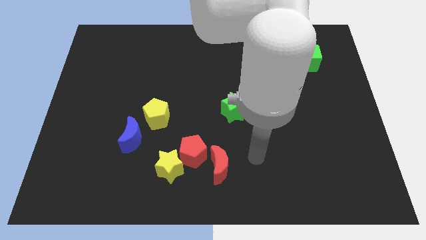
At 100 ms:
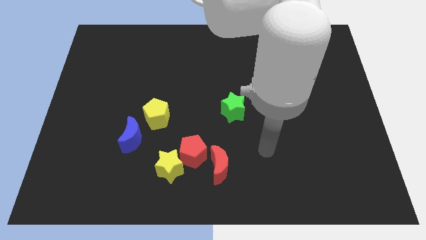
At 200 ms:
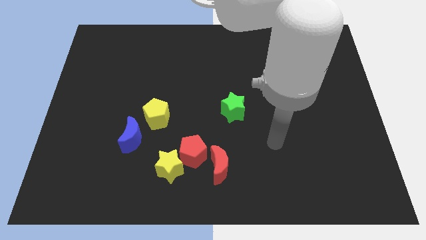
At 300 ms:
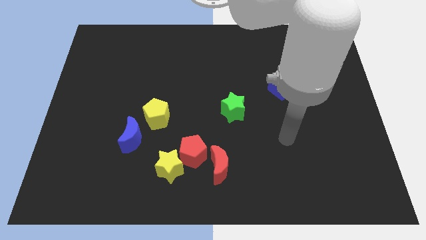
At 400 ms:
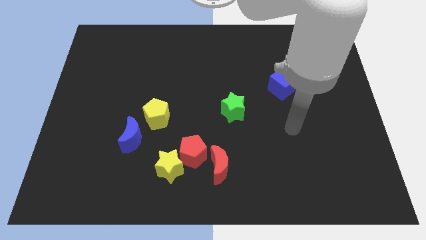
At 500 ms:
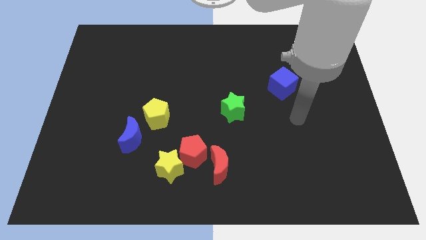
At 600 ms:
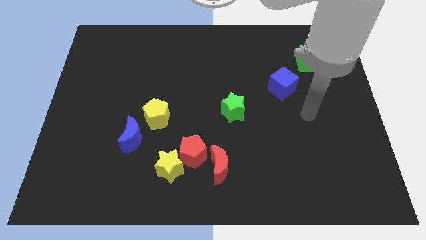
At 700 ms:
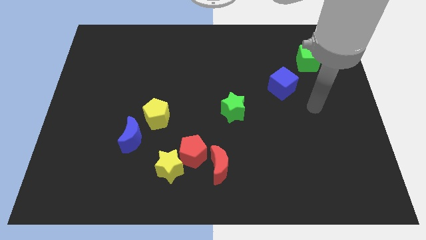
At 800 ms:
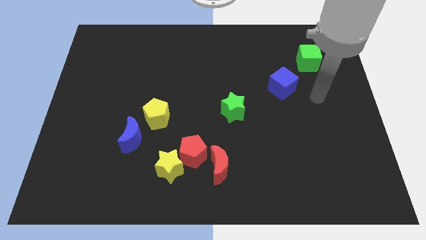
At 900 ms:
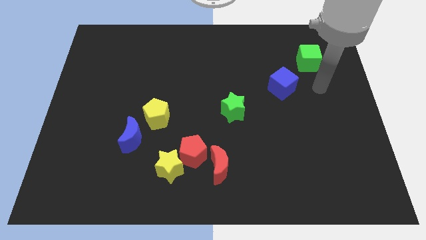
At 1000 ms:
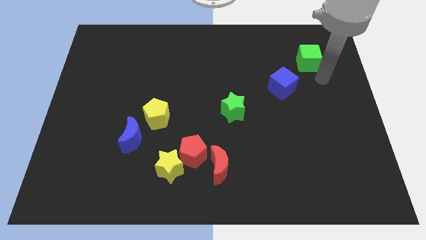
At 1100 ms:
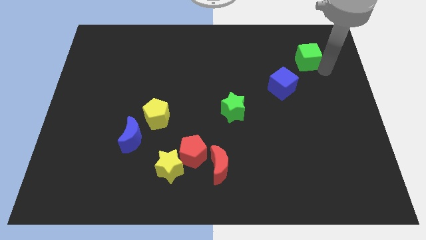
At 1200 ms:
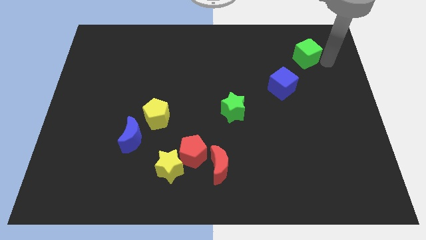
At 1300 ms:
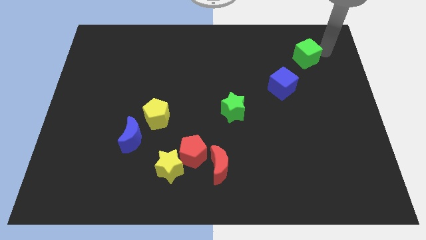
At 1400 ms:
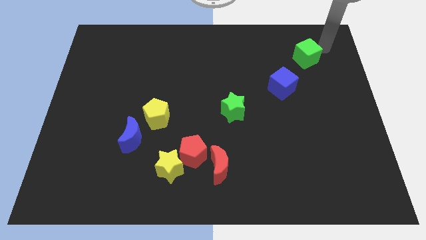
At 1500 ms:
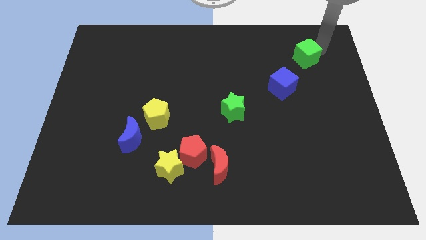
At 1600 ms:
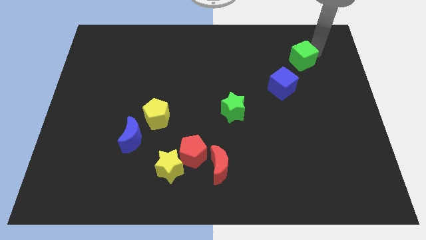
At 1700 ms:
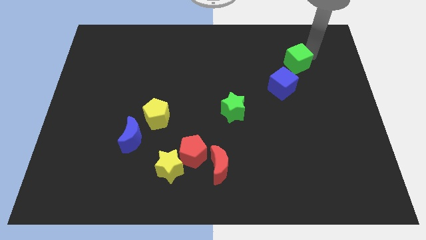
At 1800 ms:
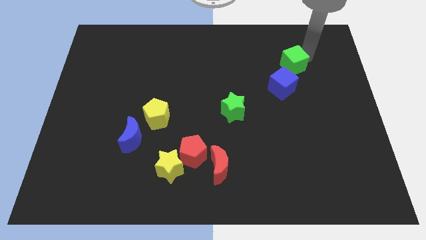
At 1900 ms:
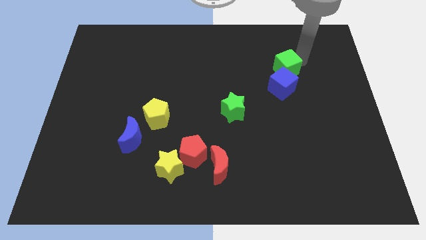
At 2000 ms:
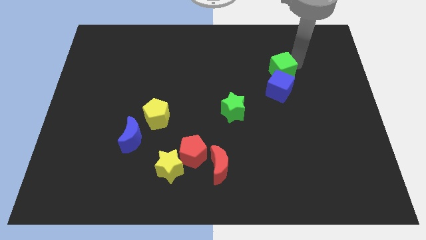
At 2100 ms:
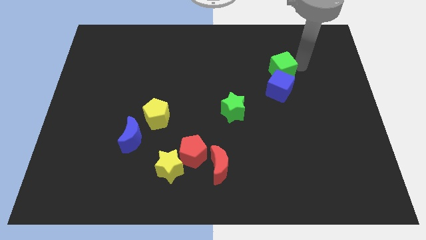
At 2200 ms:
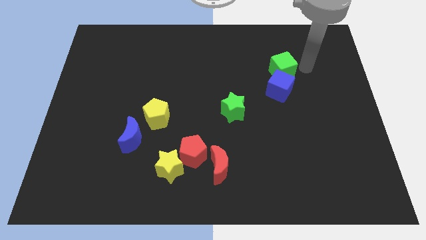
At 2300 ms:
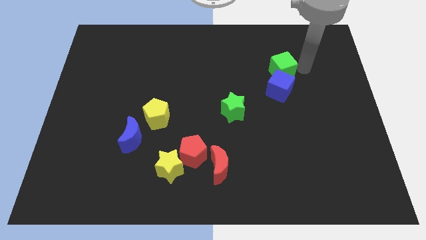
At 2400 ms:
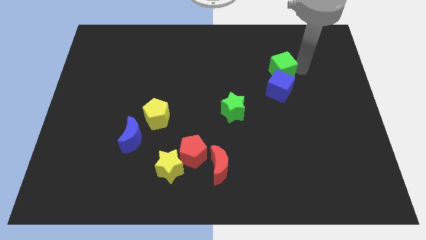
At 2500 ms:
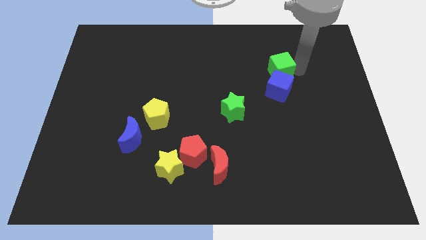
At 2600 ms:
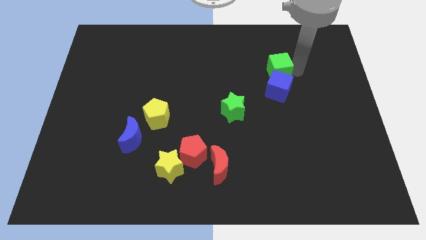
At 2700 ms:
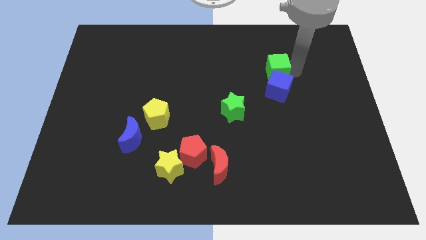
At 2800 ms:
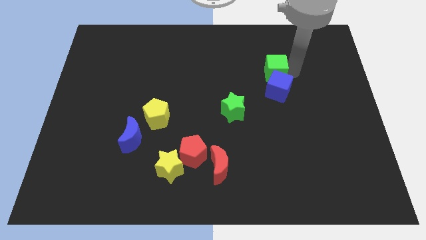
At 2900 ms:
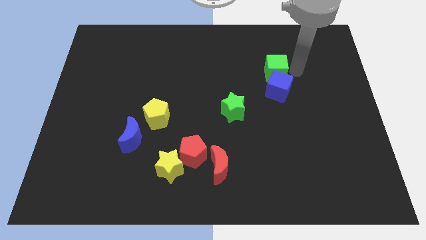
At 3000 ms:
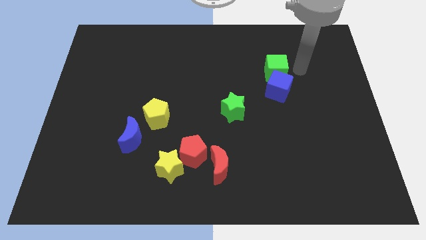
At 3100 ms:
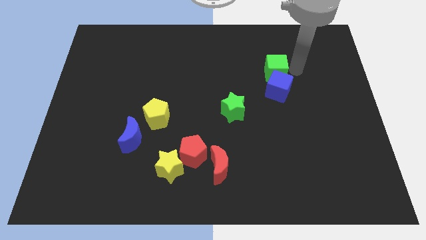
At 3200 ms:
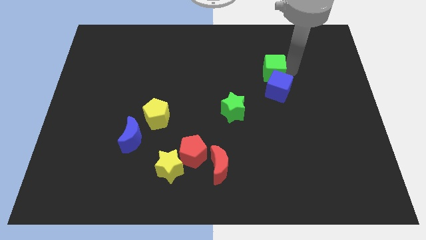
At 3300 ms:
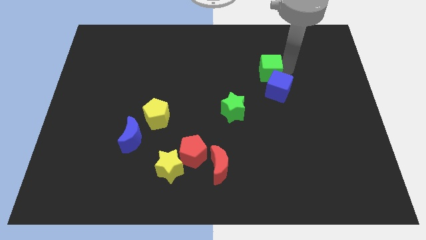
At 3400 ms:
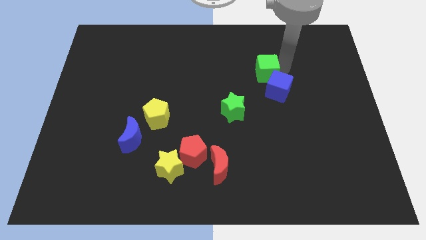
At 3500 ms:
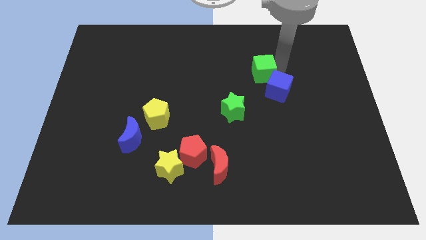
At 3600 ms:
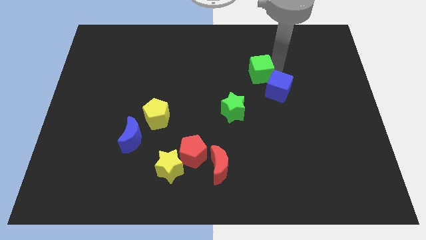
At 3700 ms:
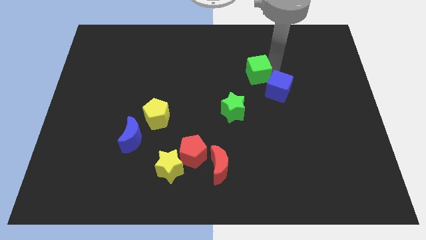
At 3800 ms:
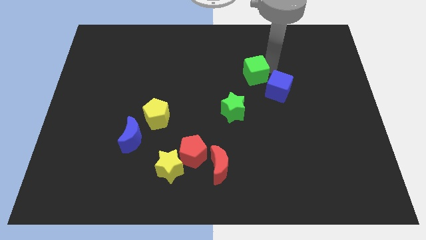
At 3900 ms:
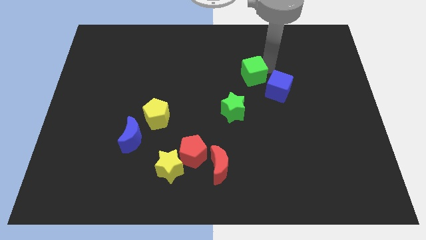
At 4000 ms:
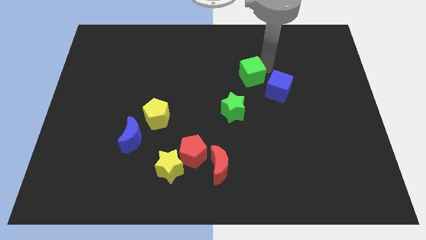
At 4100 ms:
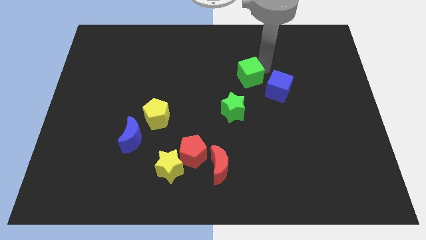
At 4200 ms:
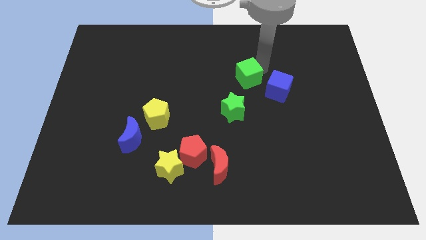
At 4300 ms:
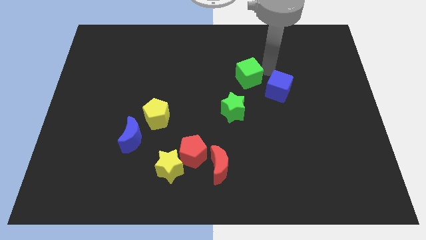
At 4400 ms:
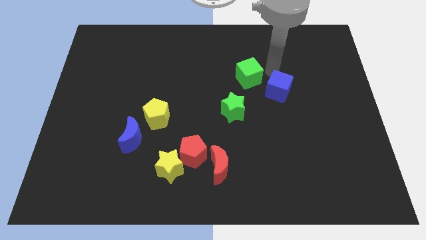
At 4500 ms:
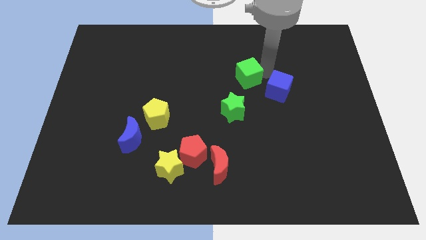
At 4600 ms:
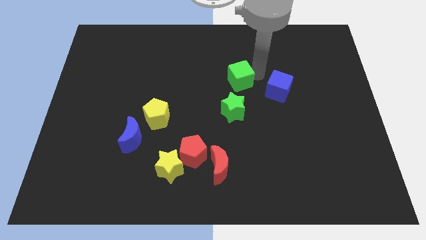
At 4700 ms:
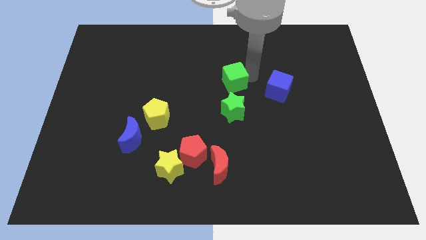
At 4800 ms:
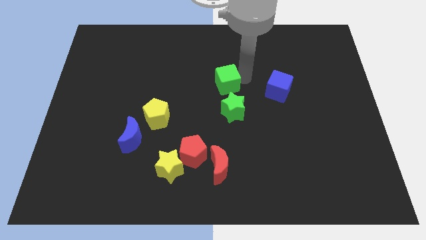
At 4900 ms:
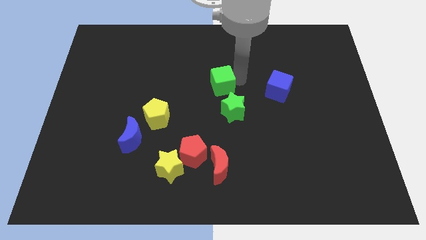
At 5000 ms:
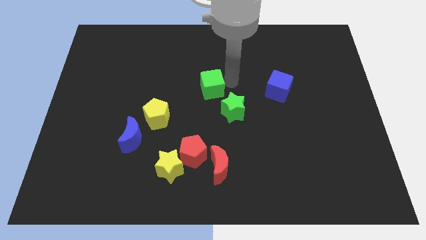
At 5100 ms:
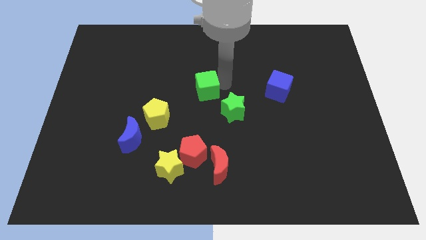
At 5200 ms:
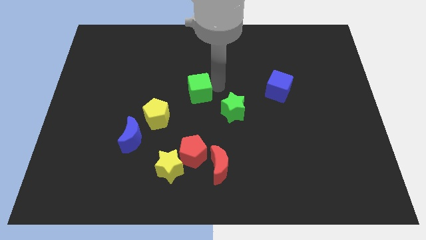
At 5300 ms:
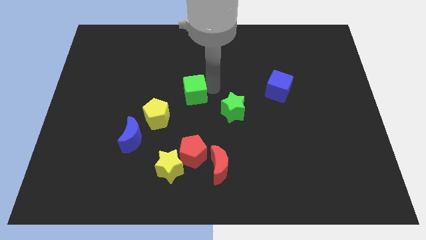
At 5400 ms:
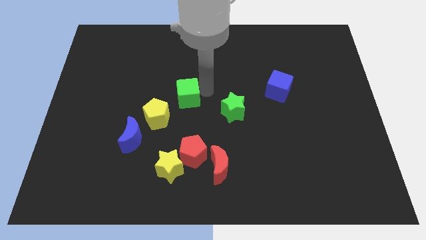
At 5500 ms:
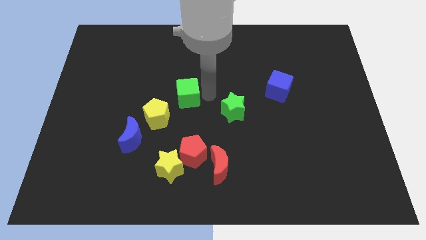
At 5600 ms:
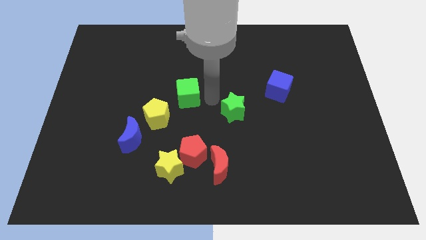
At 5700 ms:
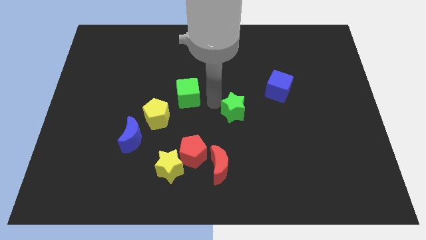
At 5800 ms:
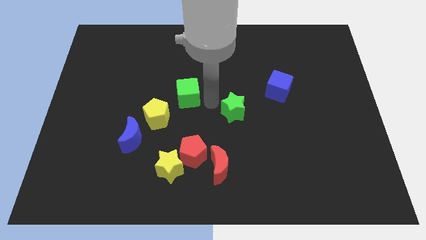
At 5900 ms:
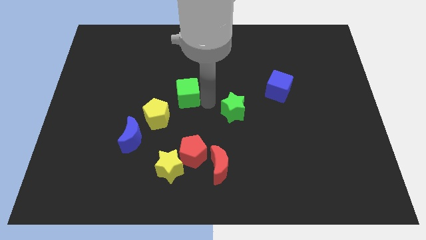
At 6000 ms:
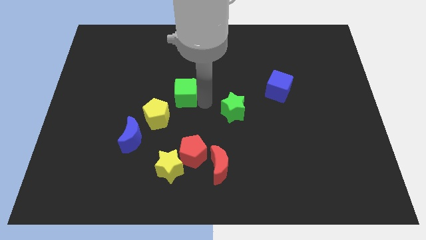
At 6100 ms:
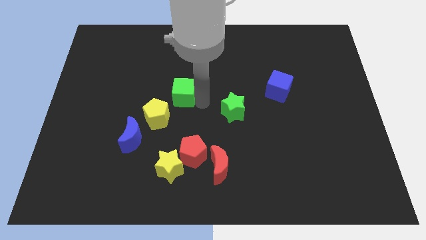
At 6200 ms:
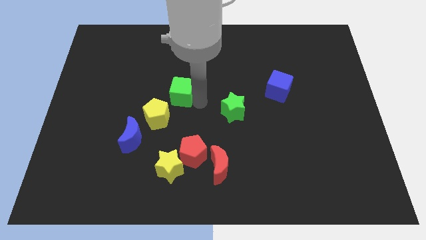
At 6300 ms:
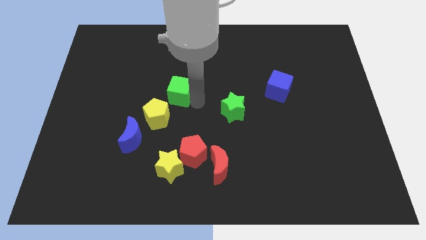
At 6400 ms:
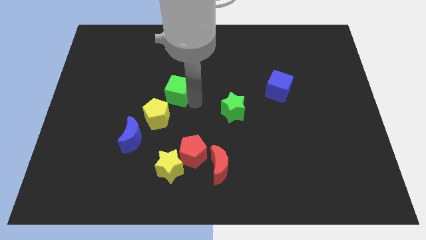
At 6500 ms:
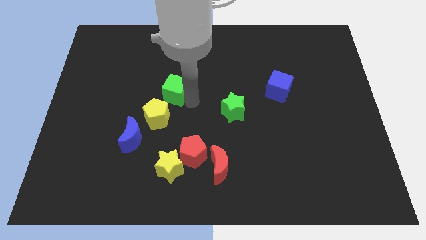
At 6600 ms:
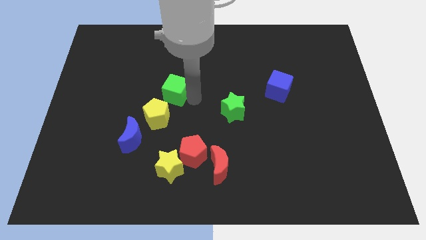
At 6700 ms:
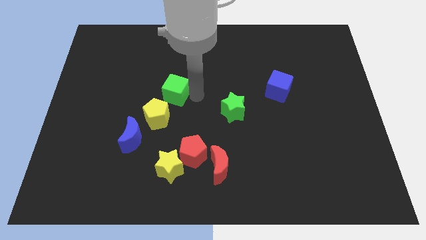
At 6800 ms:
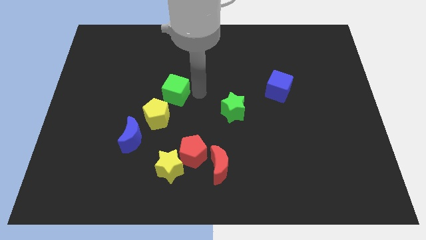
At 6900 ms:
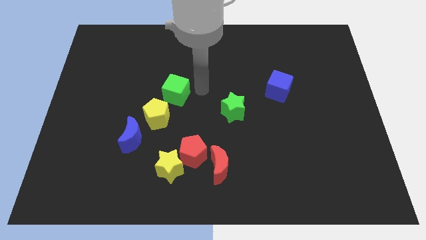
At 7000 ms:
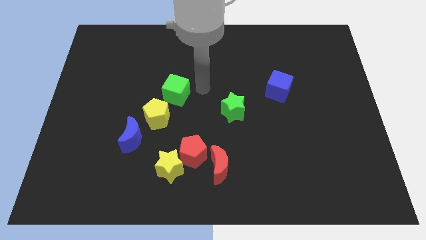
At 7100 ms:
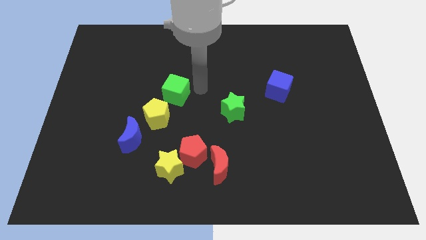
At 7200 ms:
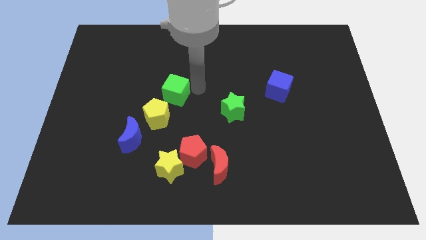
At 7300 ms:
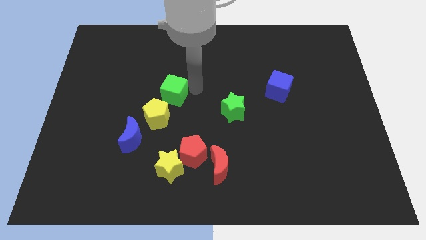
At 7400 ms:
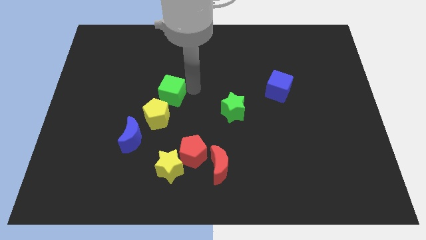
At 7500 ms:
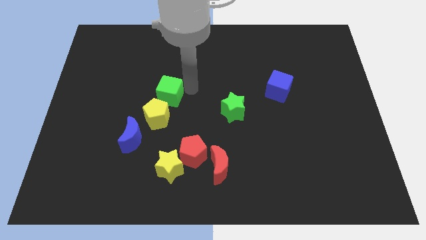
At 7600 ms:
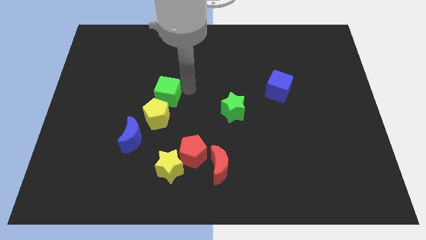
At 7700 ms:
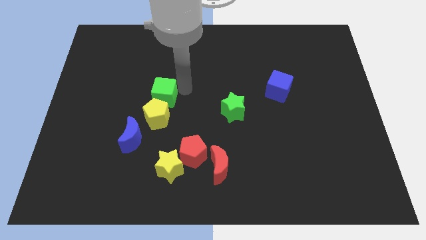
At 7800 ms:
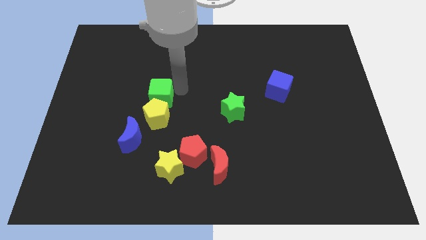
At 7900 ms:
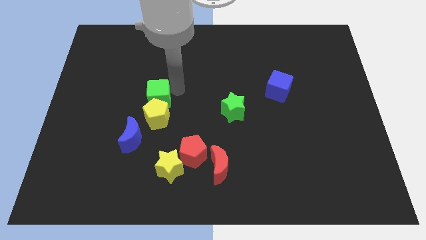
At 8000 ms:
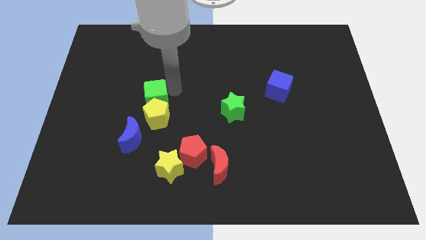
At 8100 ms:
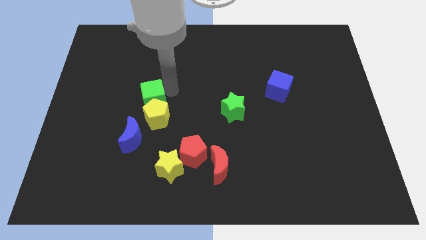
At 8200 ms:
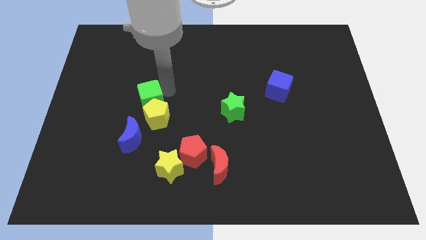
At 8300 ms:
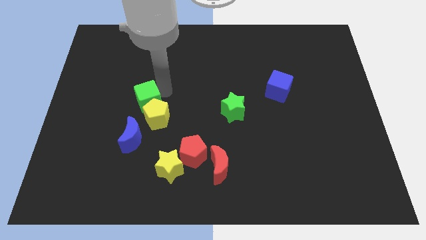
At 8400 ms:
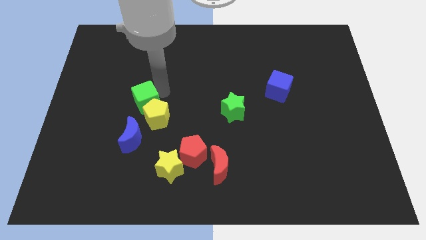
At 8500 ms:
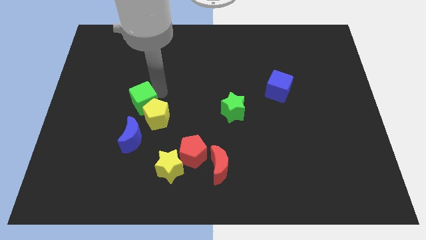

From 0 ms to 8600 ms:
move the green cube to the left side of the yellow pentagon

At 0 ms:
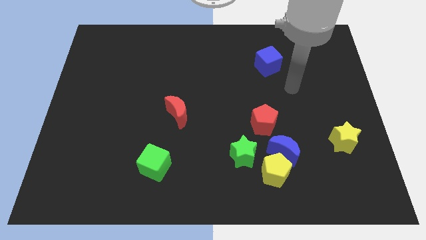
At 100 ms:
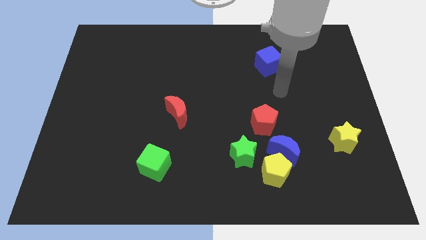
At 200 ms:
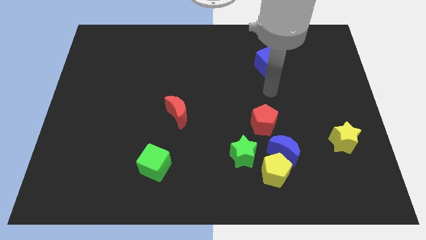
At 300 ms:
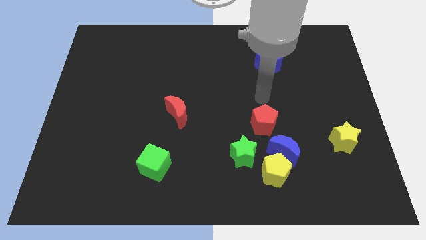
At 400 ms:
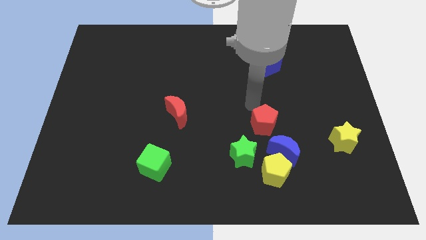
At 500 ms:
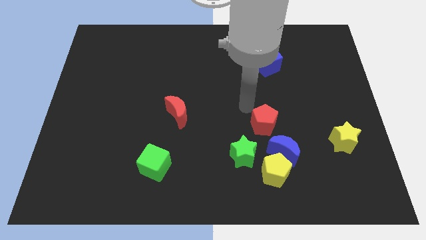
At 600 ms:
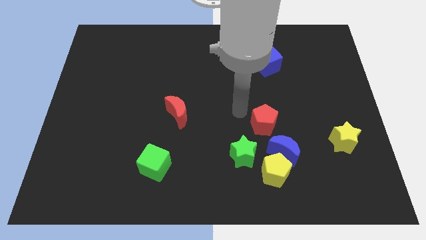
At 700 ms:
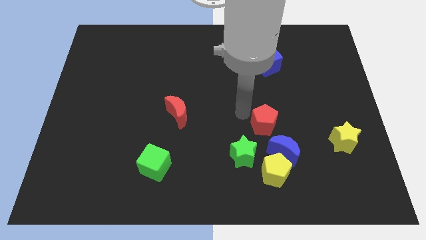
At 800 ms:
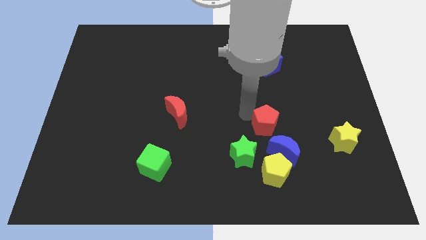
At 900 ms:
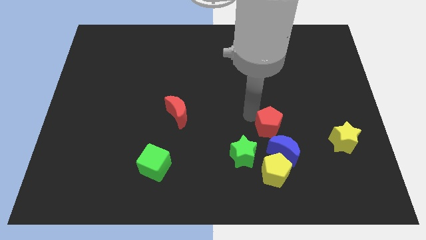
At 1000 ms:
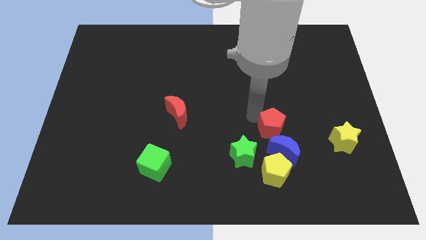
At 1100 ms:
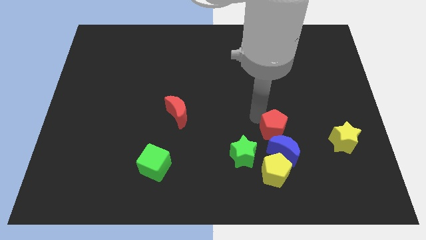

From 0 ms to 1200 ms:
slide the red pentagon to the left side of the yellow star
